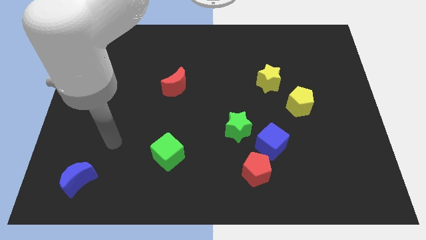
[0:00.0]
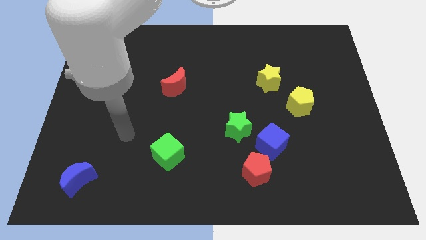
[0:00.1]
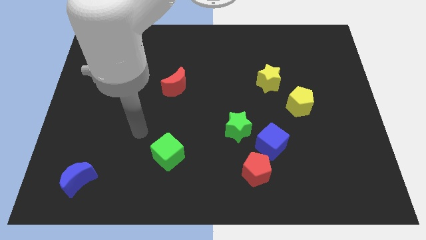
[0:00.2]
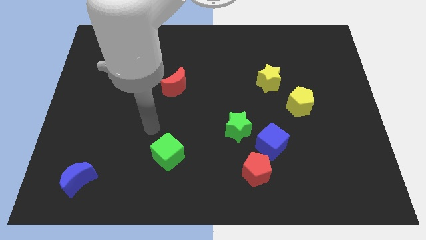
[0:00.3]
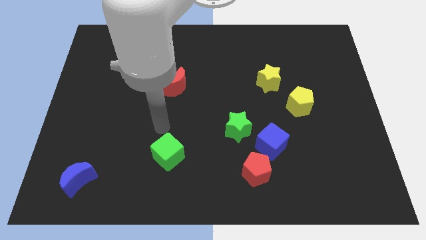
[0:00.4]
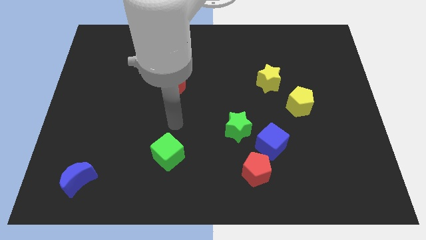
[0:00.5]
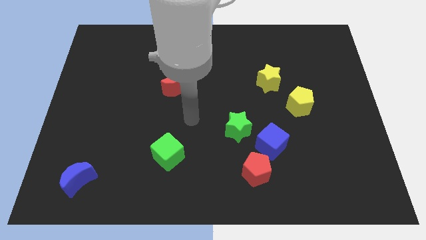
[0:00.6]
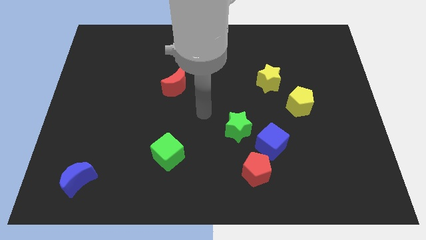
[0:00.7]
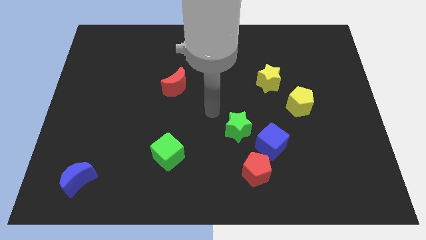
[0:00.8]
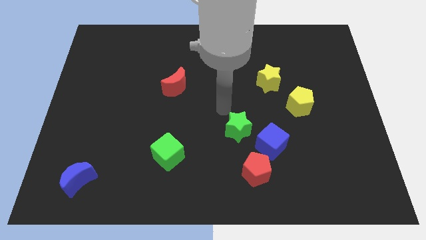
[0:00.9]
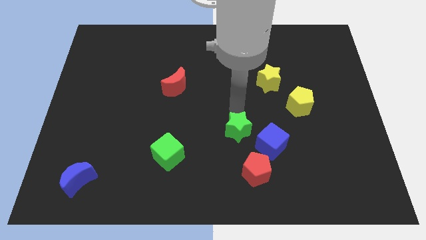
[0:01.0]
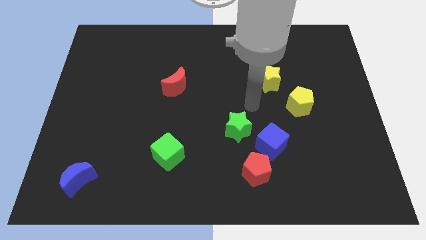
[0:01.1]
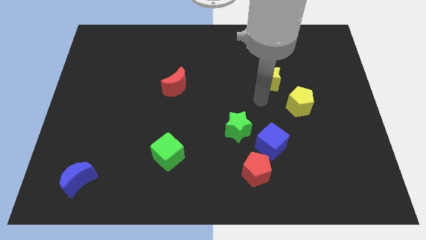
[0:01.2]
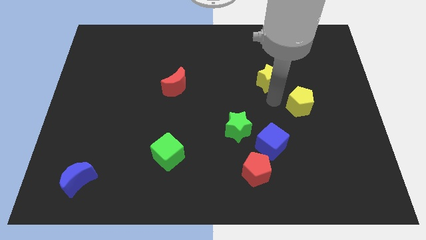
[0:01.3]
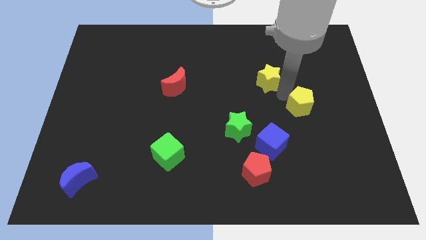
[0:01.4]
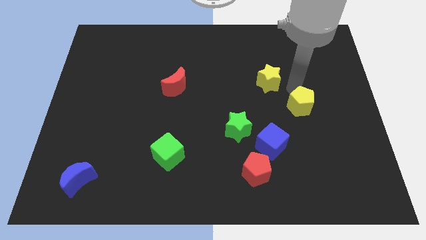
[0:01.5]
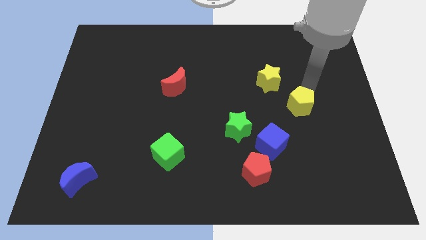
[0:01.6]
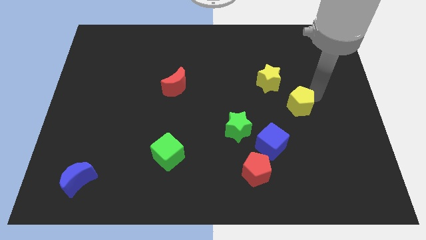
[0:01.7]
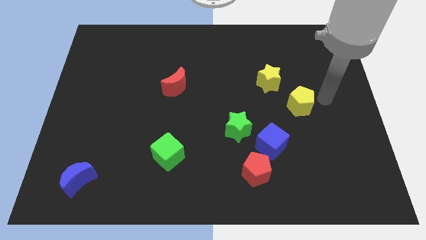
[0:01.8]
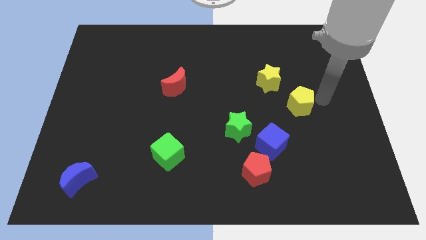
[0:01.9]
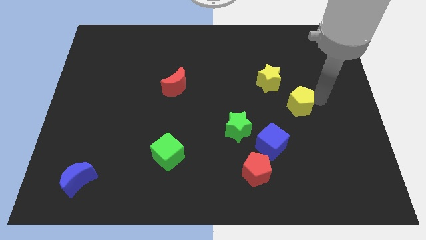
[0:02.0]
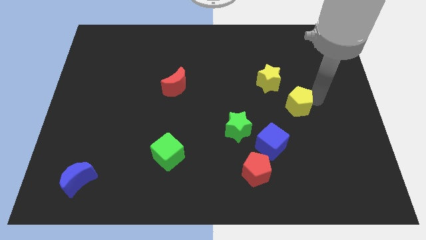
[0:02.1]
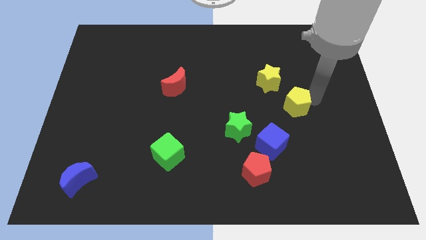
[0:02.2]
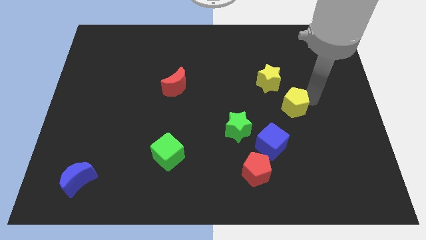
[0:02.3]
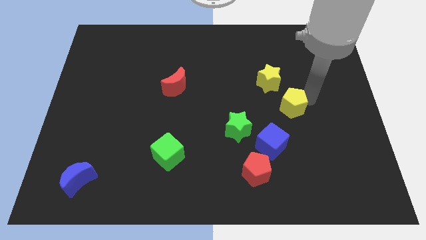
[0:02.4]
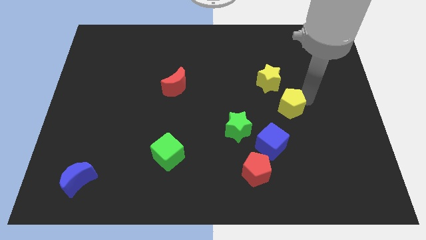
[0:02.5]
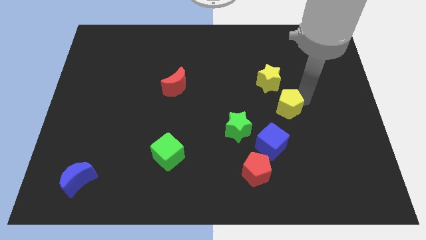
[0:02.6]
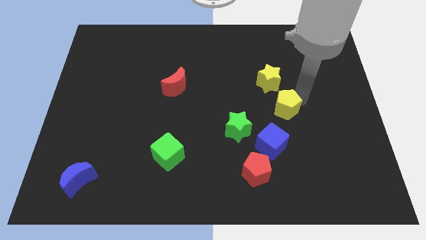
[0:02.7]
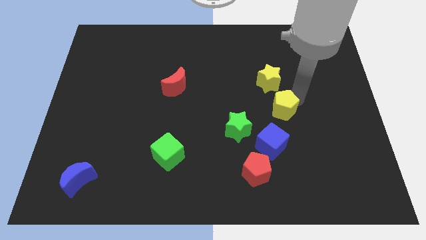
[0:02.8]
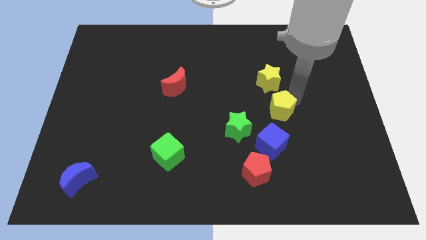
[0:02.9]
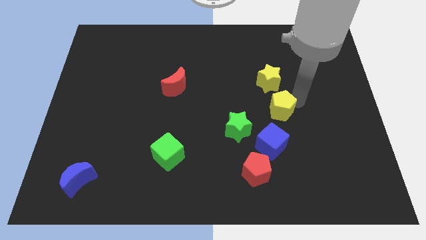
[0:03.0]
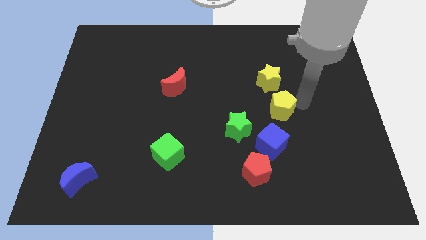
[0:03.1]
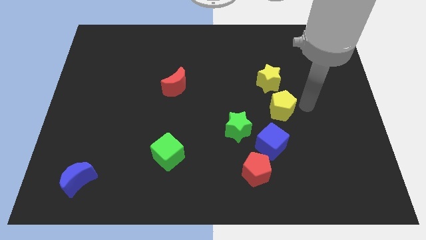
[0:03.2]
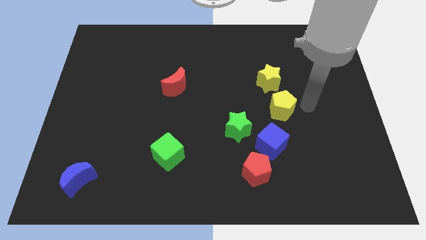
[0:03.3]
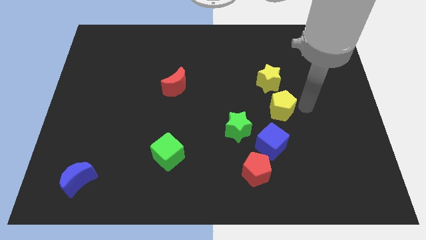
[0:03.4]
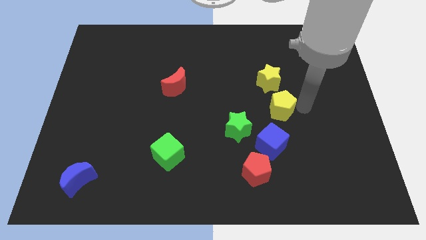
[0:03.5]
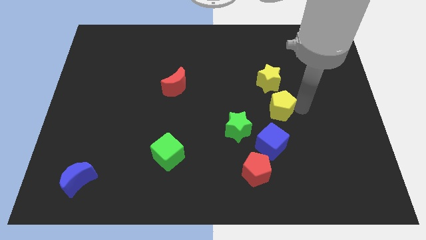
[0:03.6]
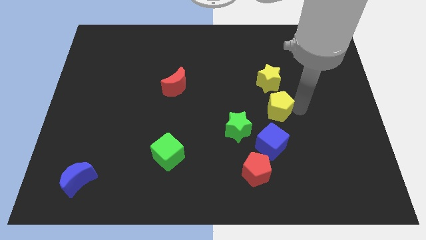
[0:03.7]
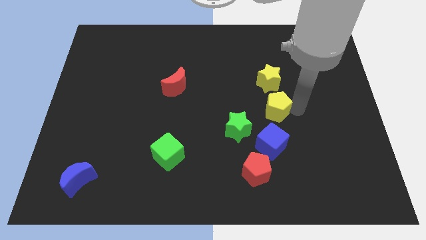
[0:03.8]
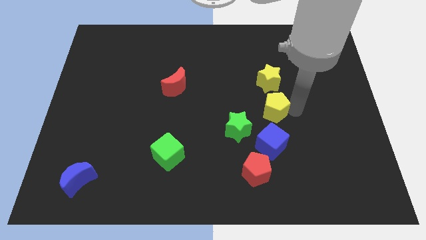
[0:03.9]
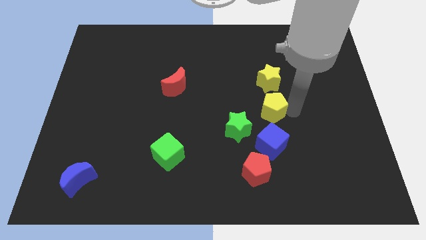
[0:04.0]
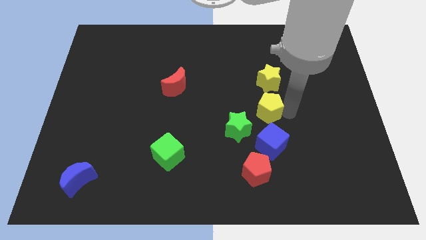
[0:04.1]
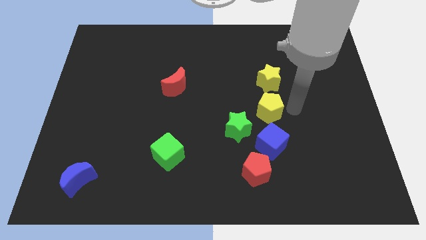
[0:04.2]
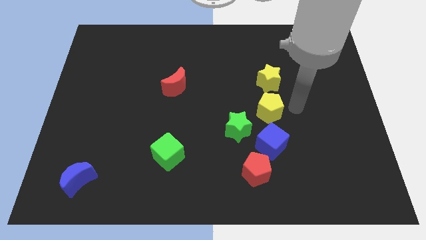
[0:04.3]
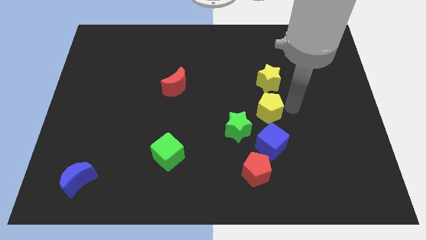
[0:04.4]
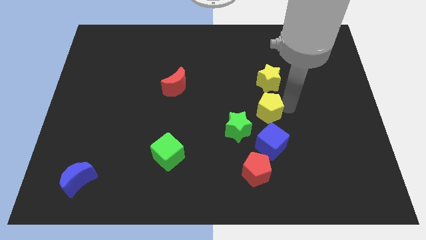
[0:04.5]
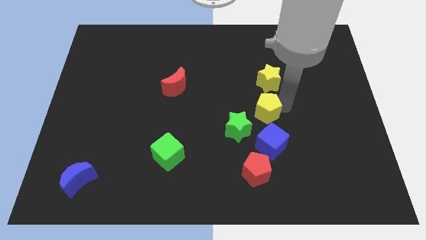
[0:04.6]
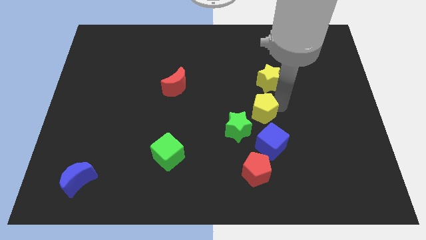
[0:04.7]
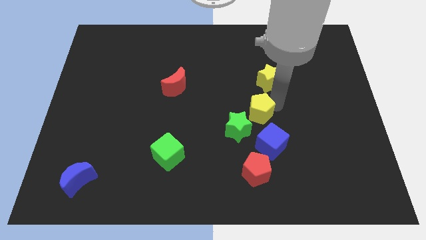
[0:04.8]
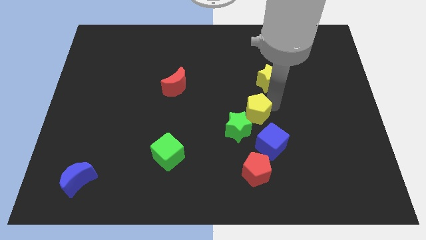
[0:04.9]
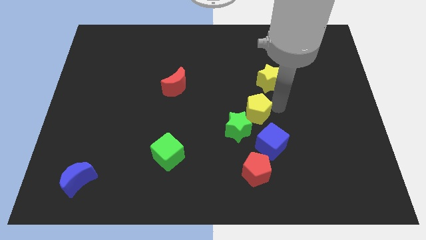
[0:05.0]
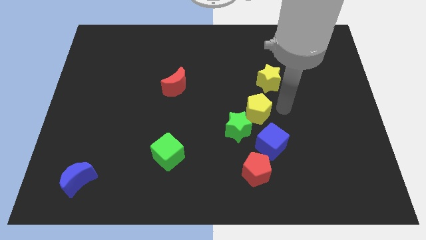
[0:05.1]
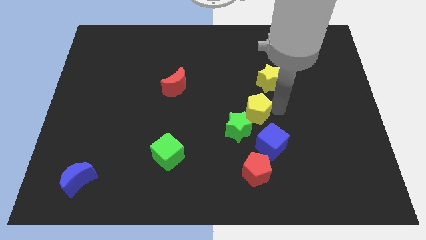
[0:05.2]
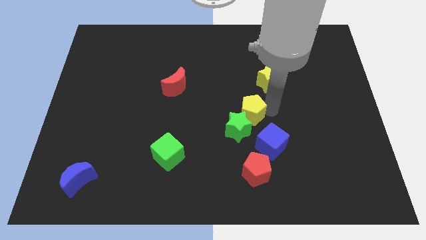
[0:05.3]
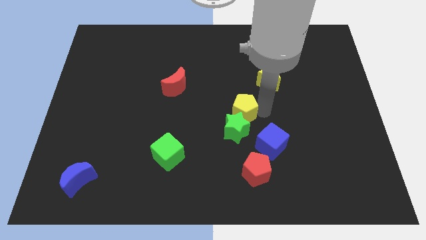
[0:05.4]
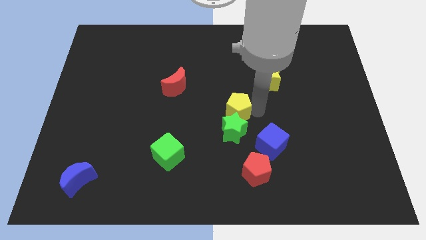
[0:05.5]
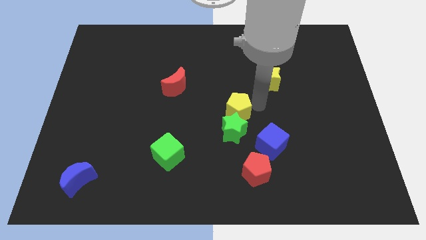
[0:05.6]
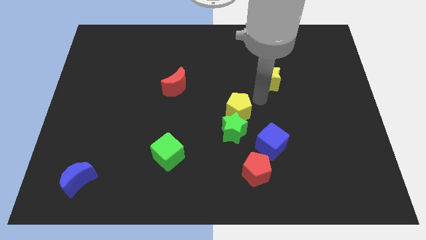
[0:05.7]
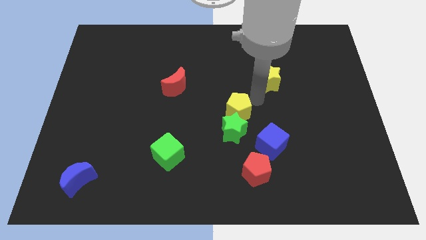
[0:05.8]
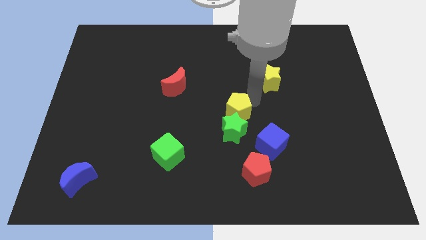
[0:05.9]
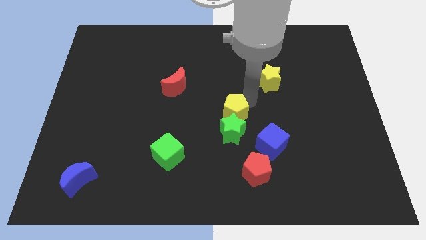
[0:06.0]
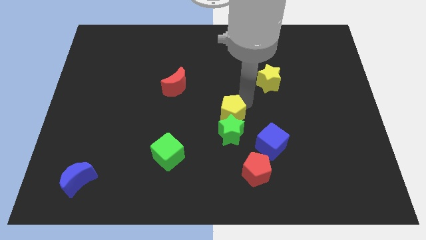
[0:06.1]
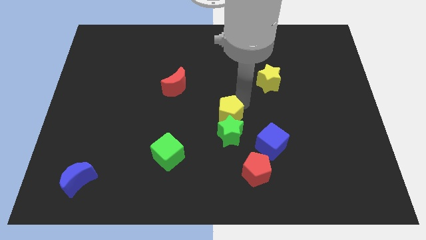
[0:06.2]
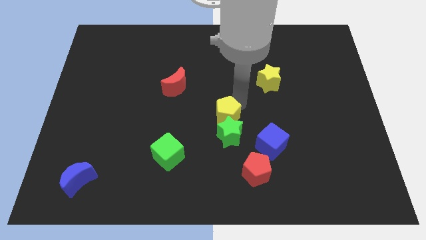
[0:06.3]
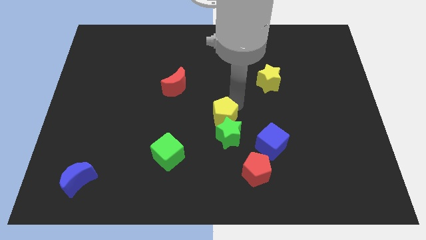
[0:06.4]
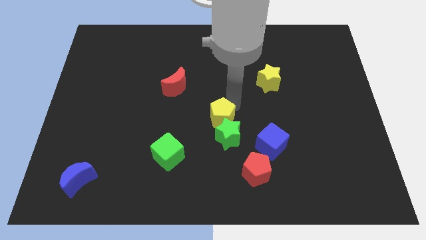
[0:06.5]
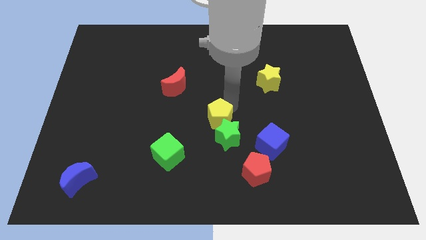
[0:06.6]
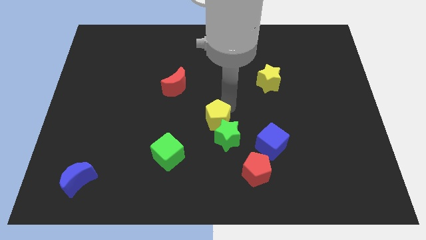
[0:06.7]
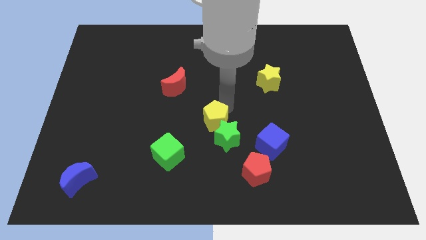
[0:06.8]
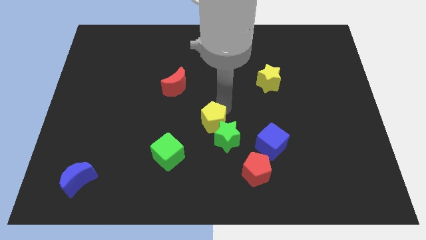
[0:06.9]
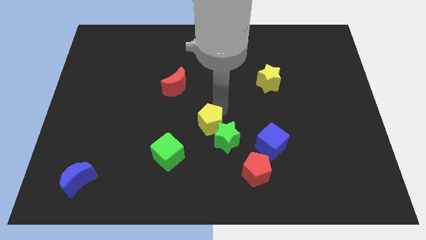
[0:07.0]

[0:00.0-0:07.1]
push the yellow pentagon left of the green star
